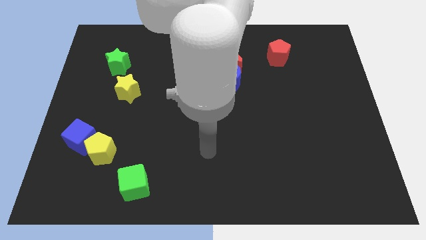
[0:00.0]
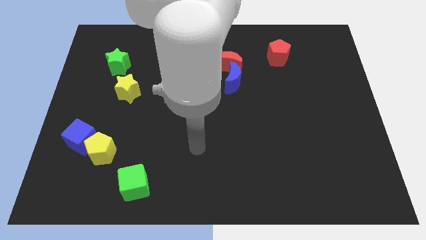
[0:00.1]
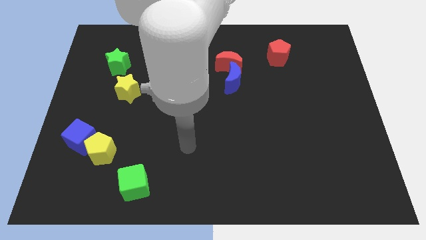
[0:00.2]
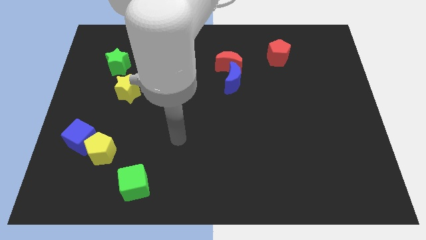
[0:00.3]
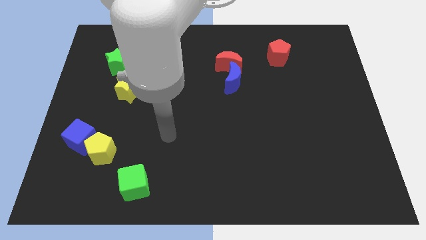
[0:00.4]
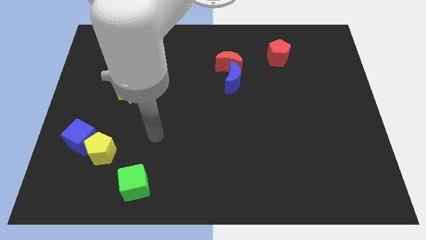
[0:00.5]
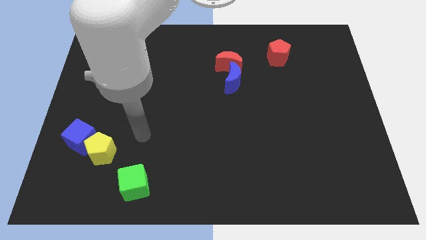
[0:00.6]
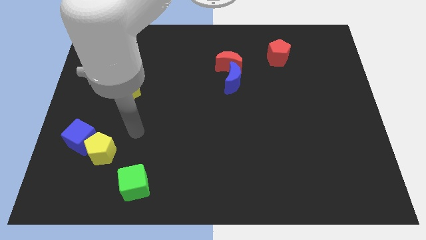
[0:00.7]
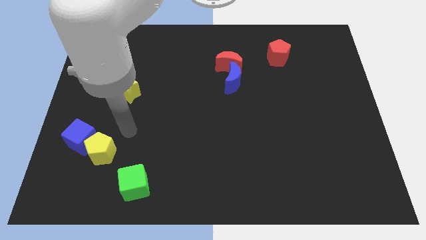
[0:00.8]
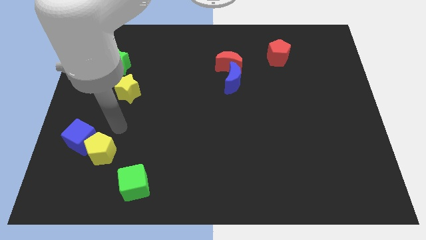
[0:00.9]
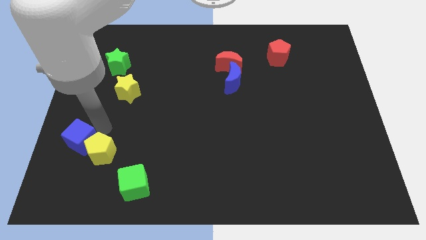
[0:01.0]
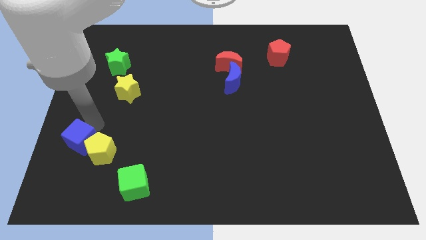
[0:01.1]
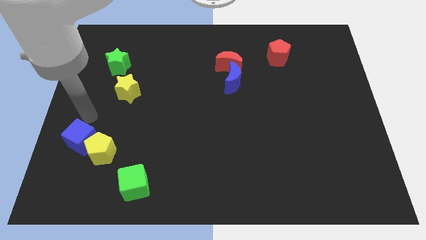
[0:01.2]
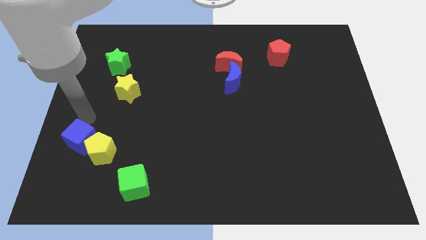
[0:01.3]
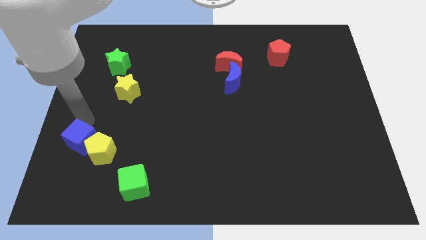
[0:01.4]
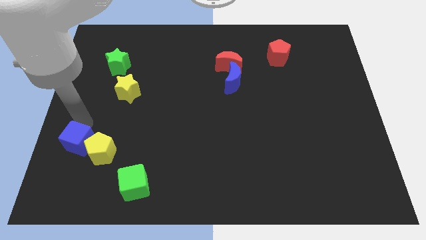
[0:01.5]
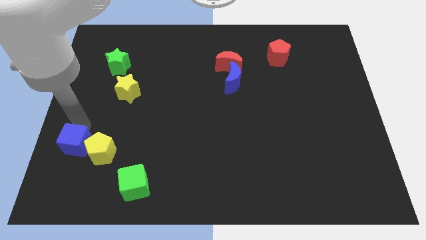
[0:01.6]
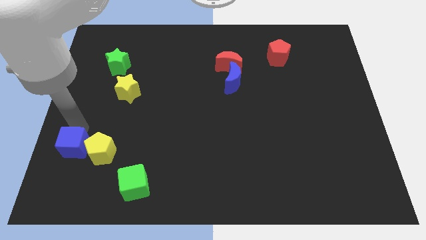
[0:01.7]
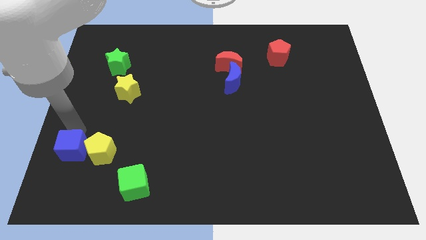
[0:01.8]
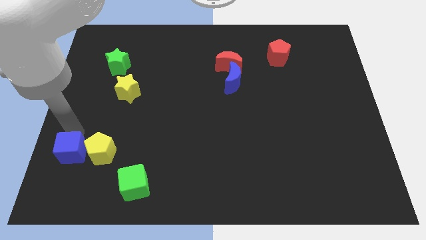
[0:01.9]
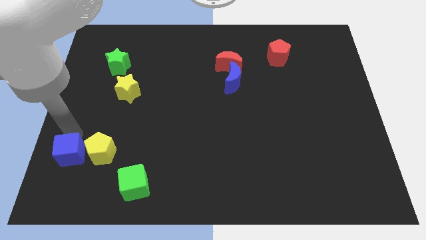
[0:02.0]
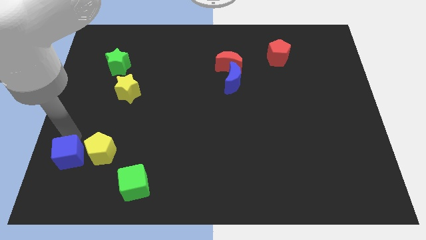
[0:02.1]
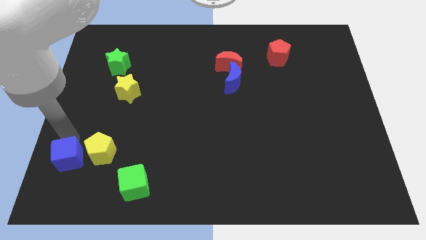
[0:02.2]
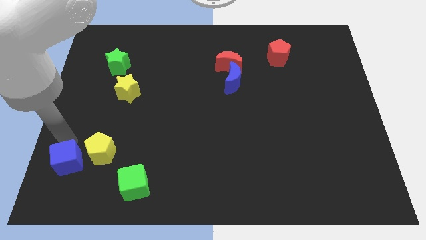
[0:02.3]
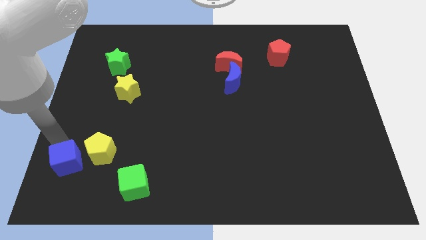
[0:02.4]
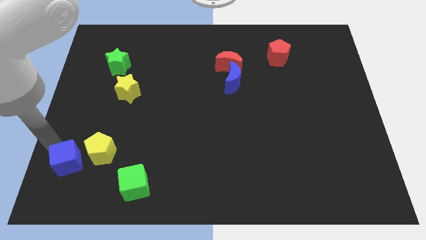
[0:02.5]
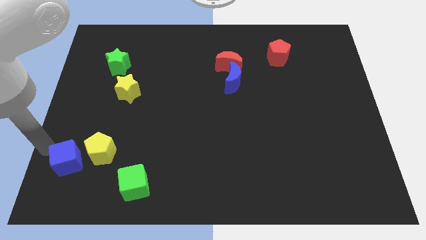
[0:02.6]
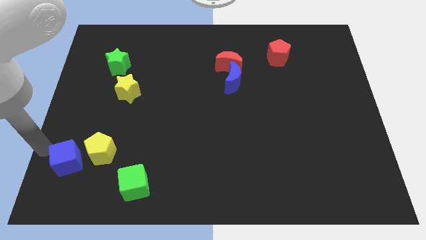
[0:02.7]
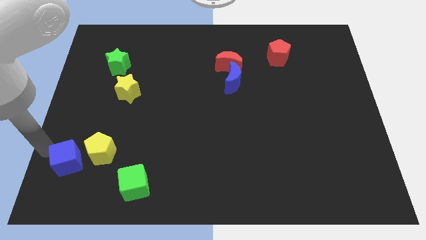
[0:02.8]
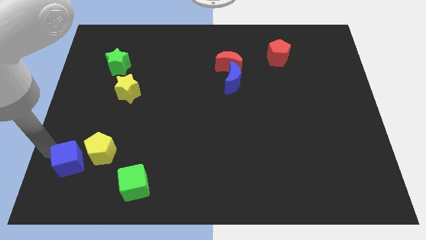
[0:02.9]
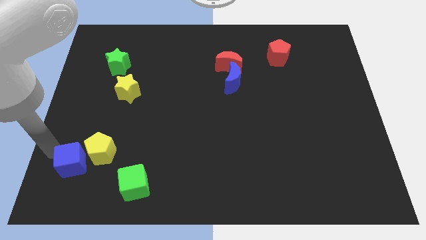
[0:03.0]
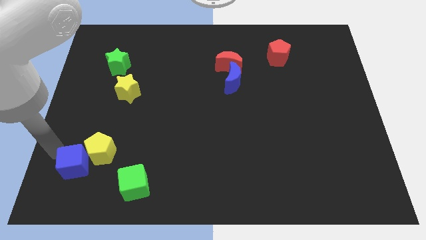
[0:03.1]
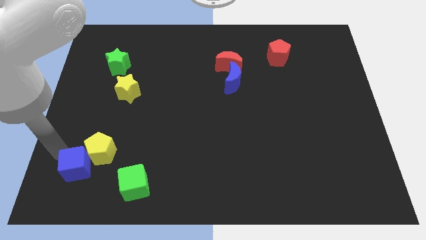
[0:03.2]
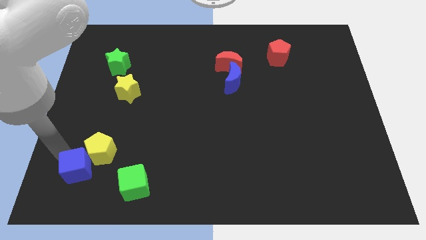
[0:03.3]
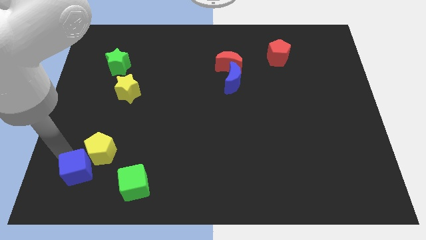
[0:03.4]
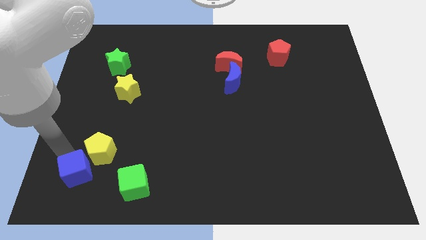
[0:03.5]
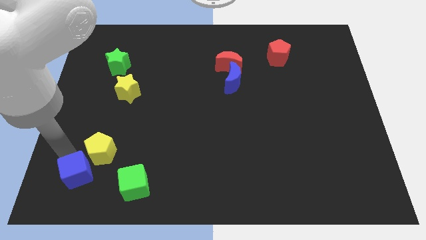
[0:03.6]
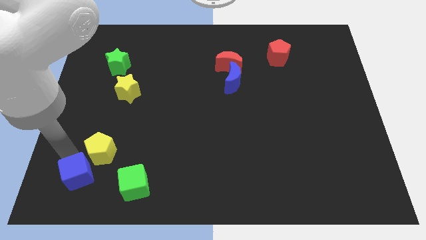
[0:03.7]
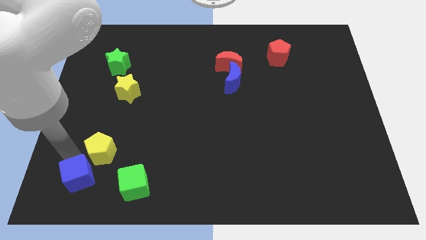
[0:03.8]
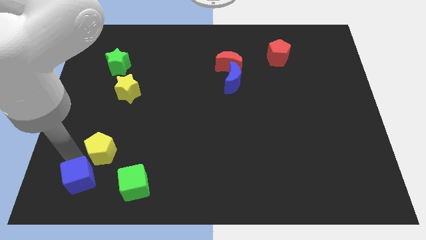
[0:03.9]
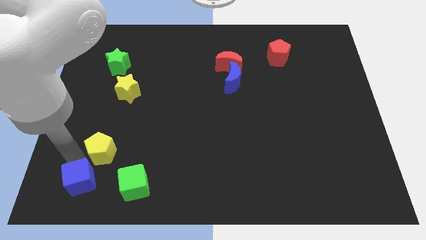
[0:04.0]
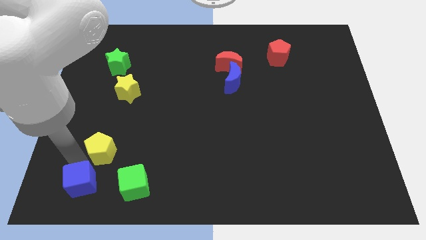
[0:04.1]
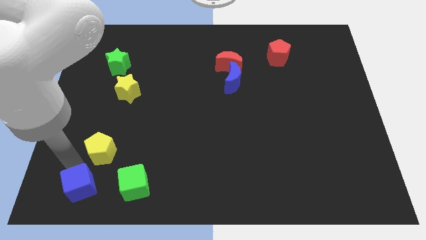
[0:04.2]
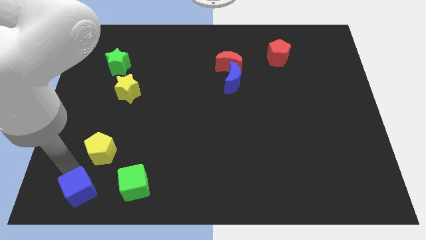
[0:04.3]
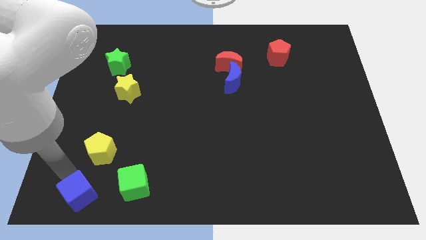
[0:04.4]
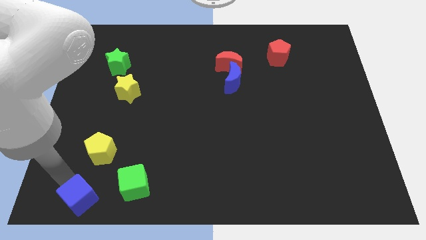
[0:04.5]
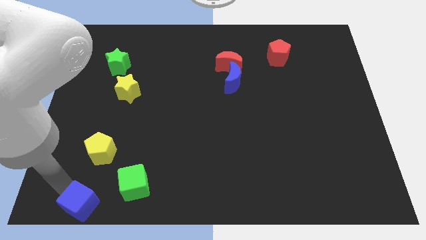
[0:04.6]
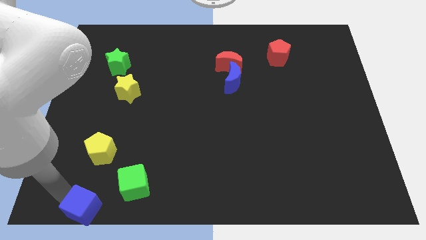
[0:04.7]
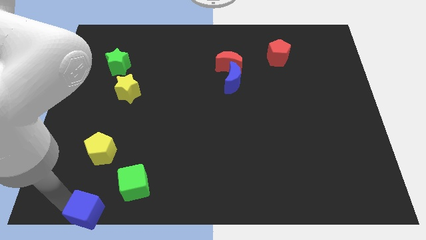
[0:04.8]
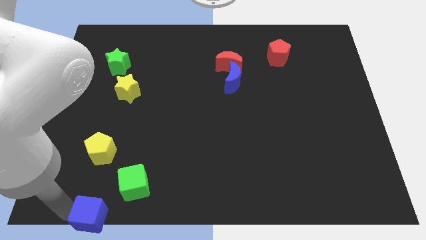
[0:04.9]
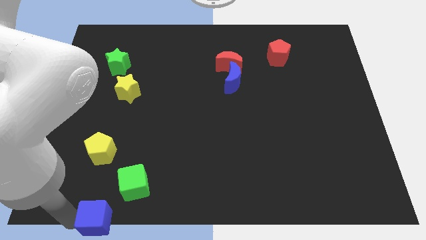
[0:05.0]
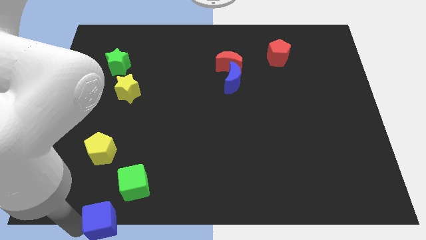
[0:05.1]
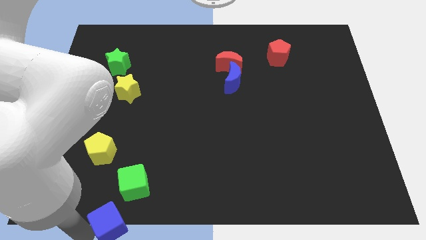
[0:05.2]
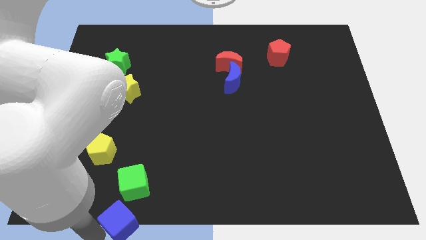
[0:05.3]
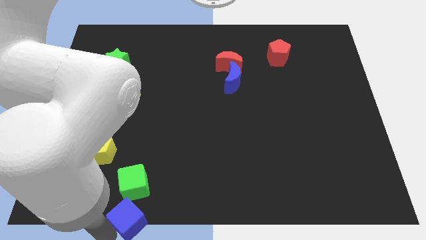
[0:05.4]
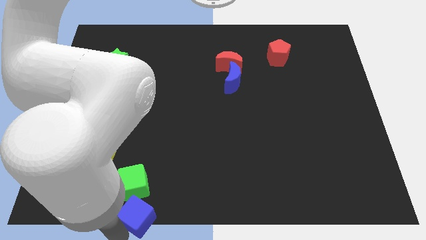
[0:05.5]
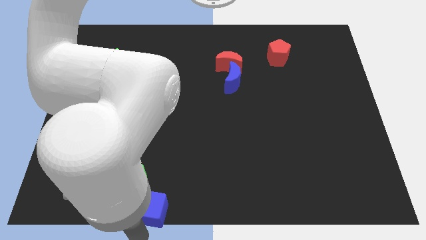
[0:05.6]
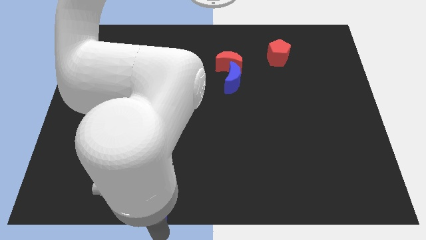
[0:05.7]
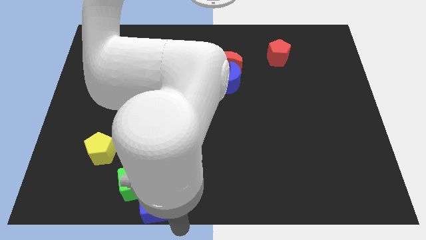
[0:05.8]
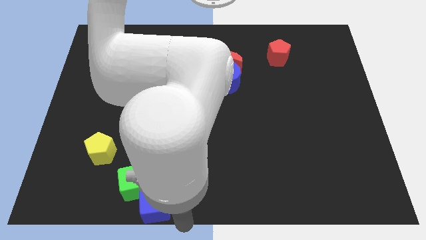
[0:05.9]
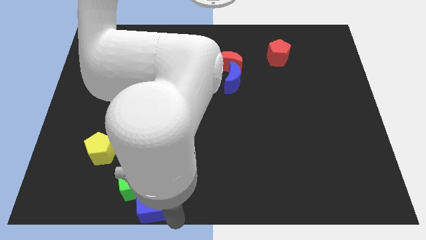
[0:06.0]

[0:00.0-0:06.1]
slide the blue cube towards the green cube

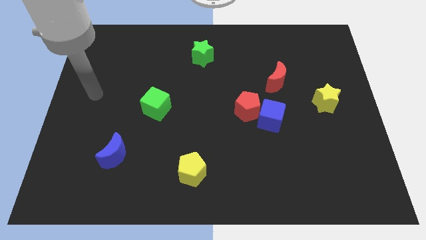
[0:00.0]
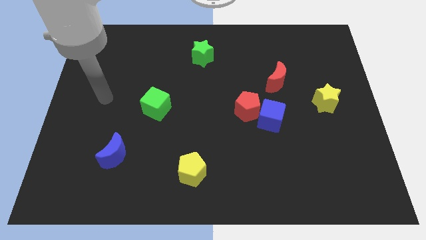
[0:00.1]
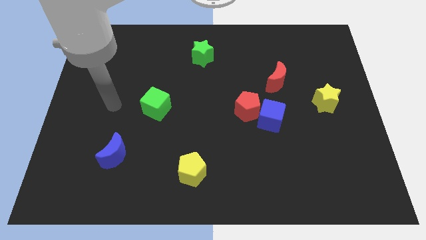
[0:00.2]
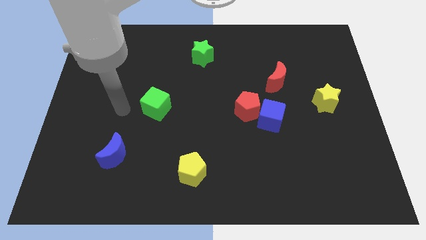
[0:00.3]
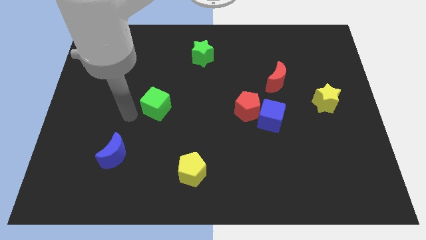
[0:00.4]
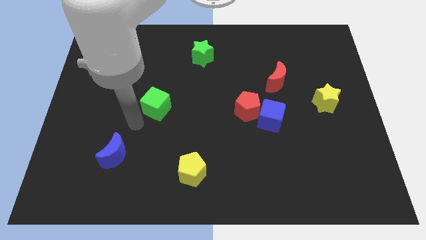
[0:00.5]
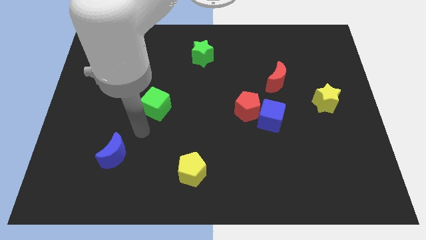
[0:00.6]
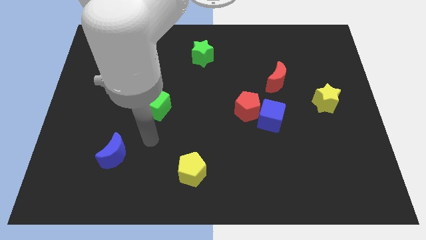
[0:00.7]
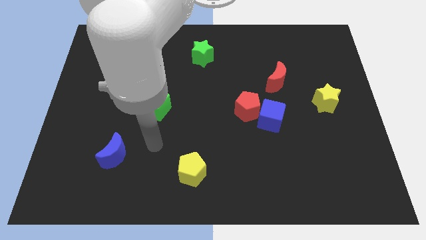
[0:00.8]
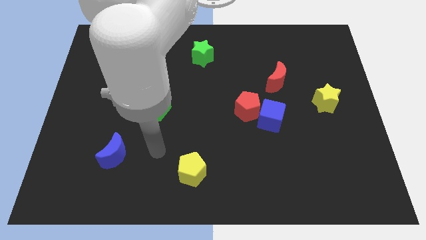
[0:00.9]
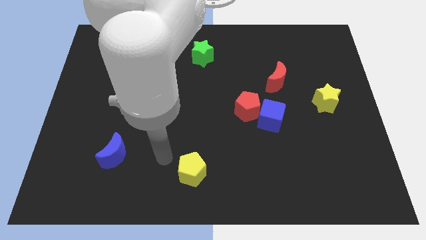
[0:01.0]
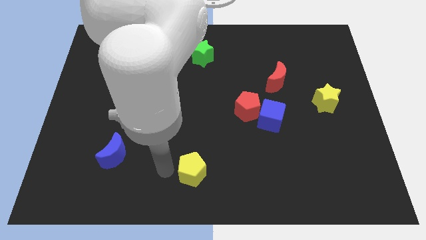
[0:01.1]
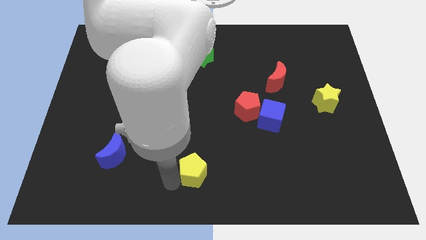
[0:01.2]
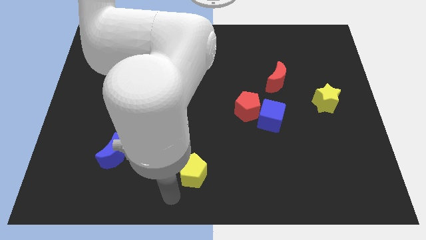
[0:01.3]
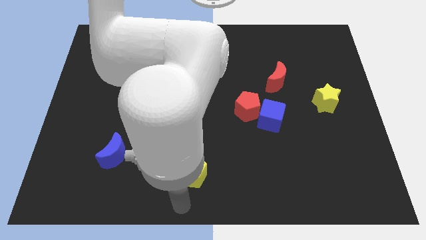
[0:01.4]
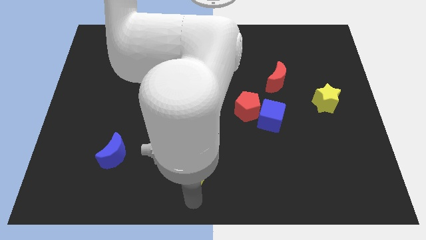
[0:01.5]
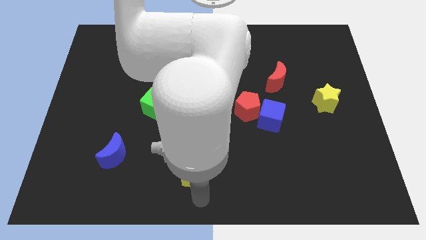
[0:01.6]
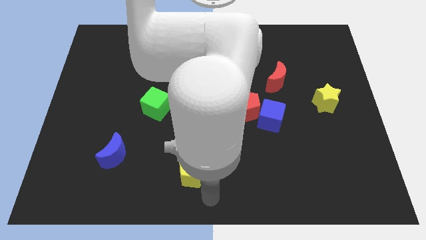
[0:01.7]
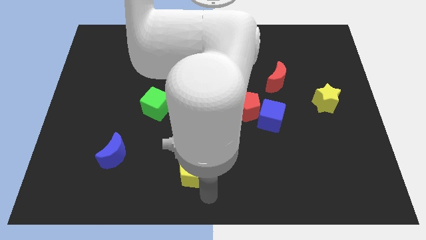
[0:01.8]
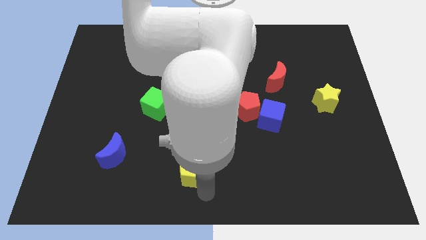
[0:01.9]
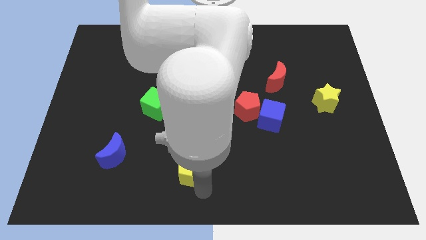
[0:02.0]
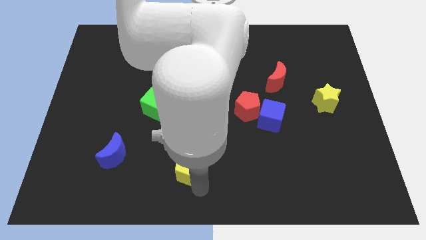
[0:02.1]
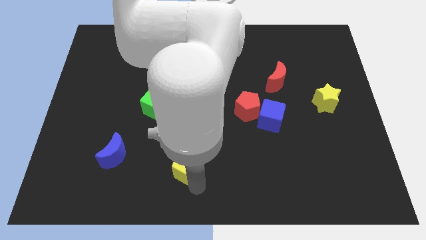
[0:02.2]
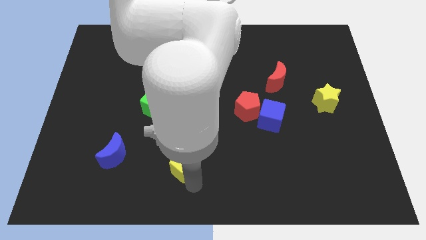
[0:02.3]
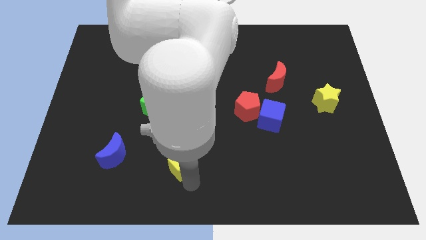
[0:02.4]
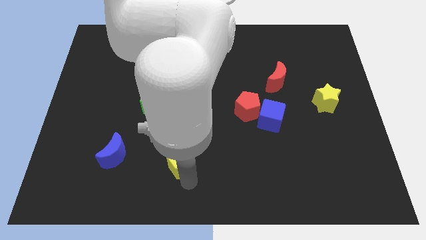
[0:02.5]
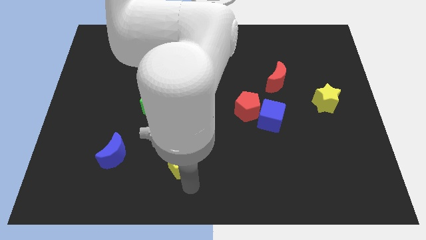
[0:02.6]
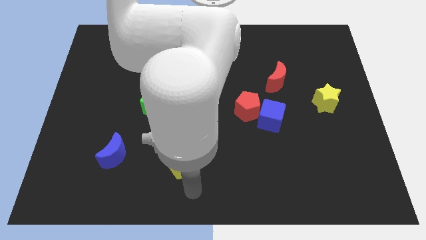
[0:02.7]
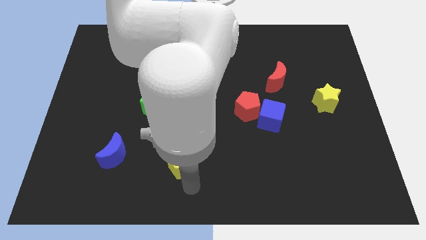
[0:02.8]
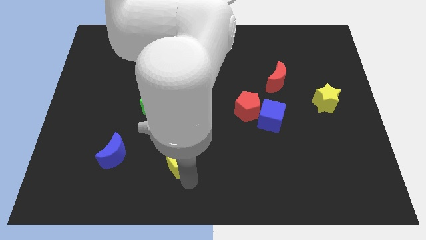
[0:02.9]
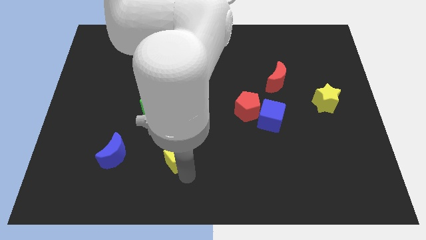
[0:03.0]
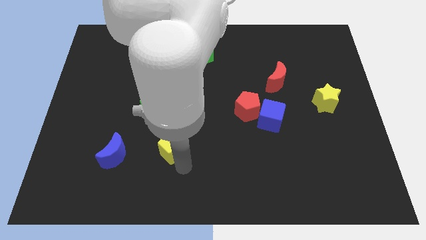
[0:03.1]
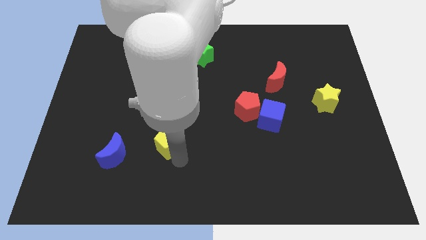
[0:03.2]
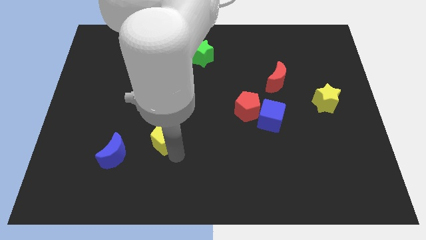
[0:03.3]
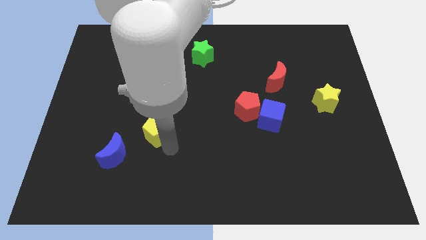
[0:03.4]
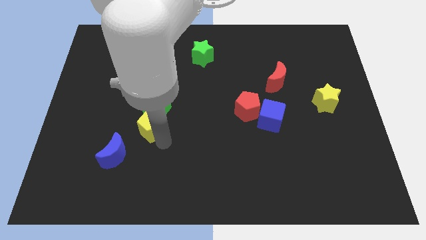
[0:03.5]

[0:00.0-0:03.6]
put the yellow pentagon towards the green cube
